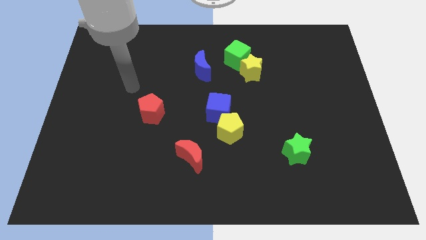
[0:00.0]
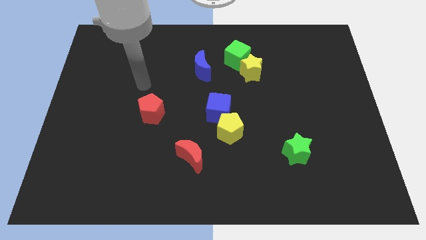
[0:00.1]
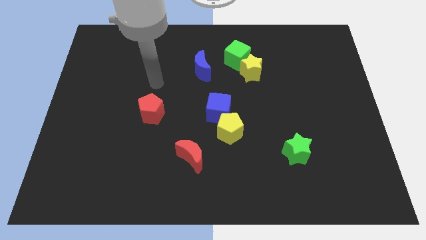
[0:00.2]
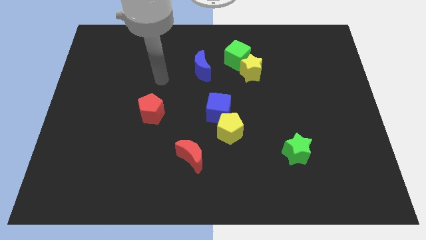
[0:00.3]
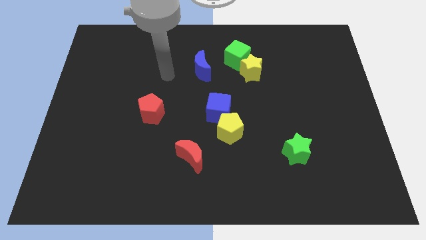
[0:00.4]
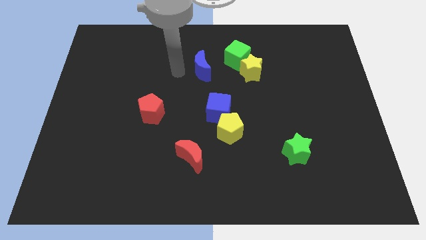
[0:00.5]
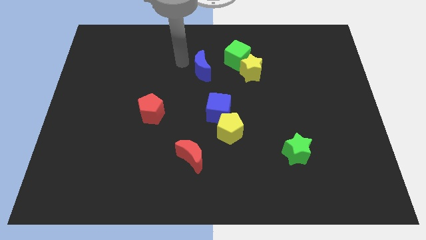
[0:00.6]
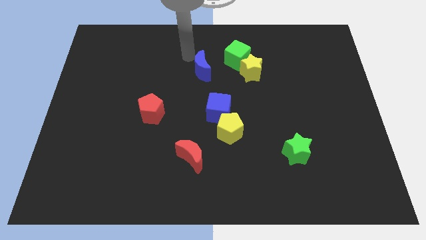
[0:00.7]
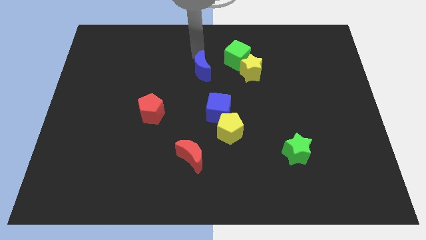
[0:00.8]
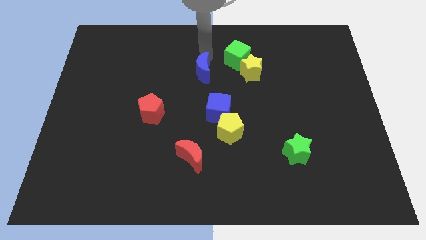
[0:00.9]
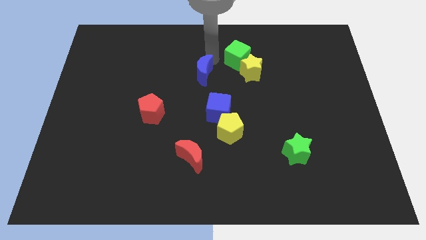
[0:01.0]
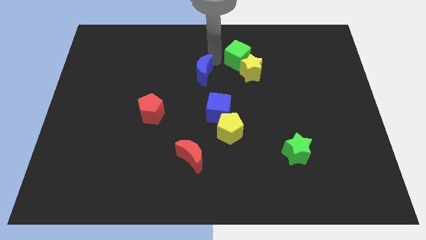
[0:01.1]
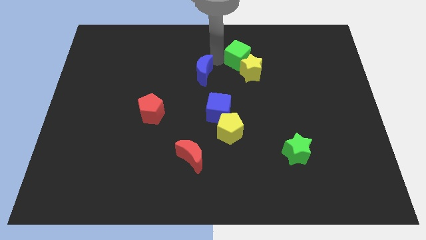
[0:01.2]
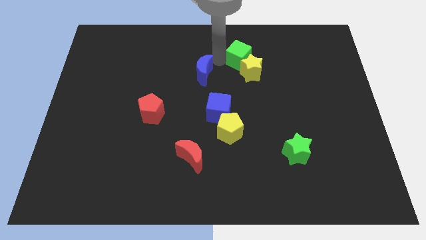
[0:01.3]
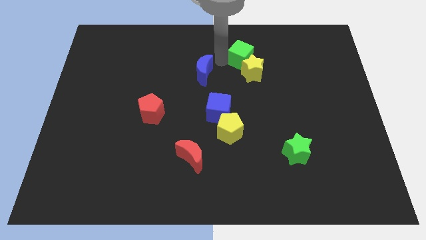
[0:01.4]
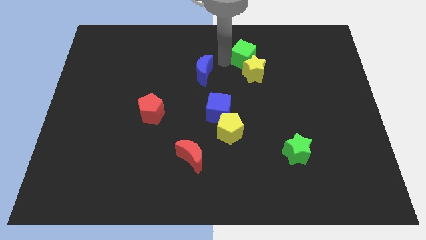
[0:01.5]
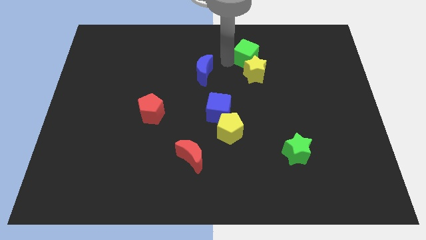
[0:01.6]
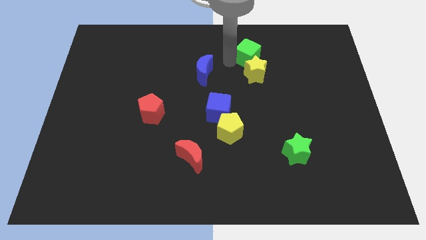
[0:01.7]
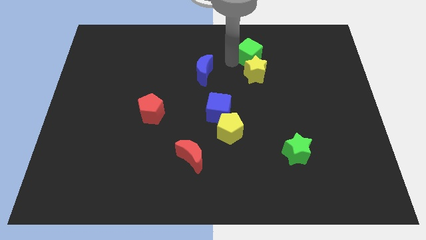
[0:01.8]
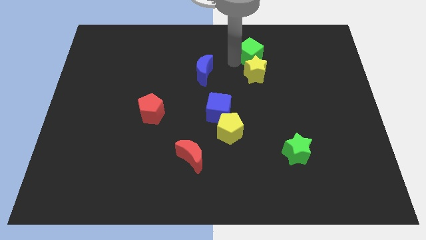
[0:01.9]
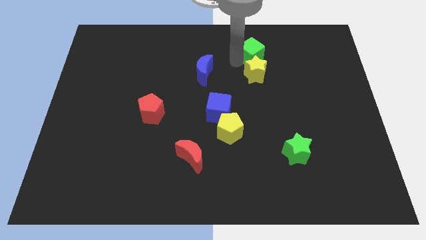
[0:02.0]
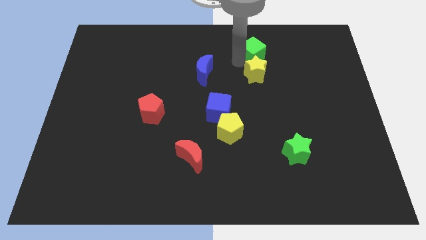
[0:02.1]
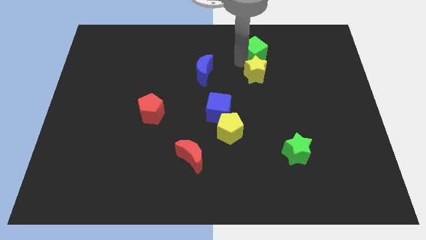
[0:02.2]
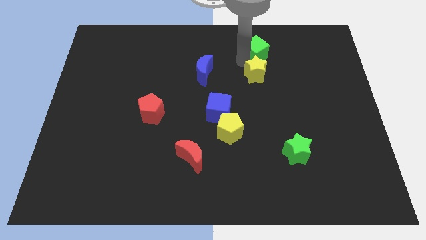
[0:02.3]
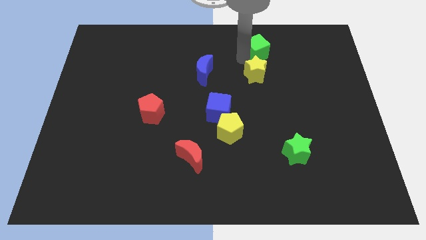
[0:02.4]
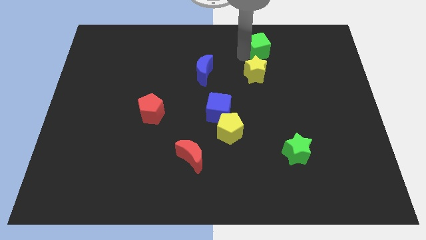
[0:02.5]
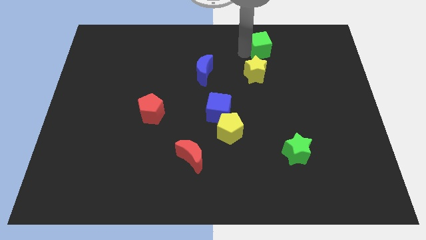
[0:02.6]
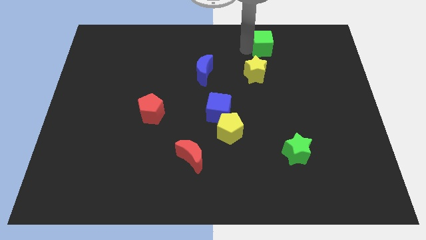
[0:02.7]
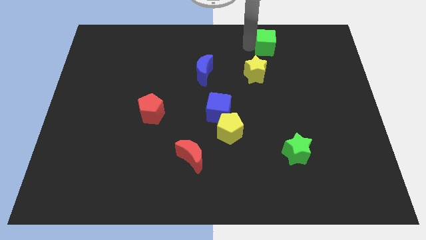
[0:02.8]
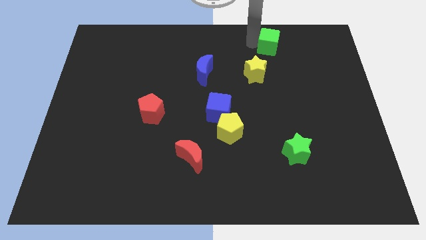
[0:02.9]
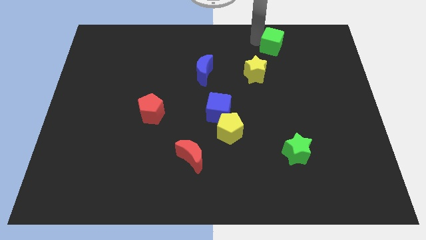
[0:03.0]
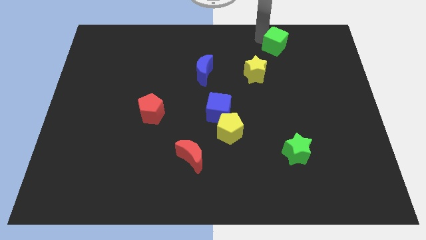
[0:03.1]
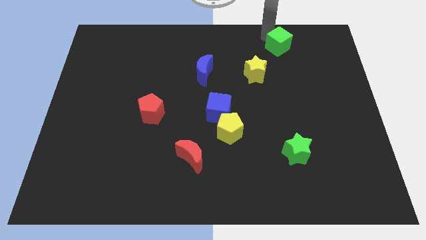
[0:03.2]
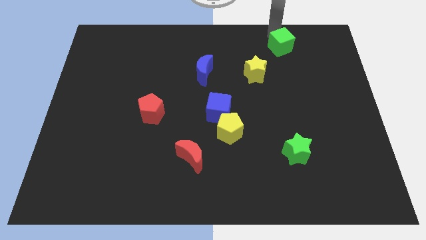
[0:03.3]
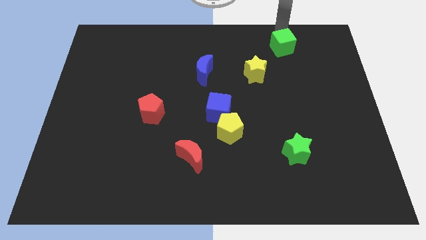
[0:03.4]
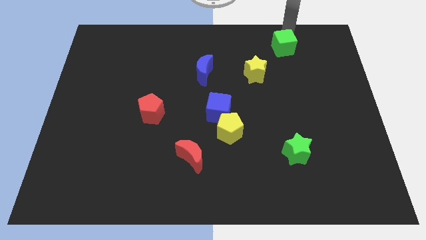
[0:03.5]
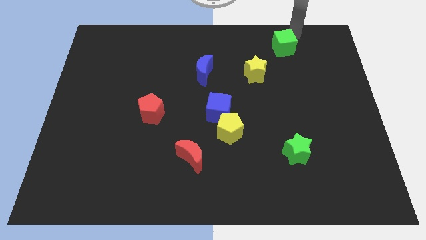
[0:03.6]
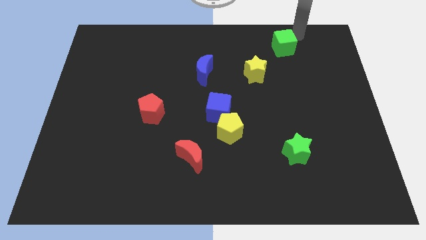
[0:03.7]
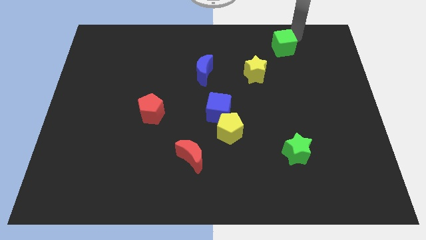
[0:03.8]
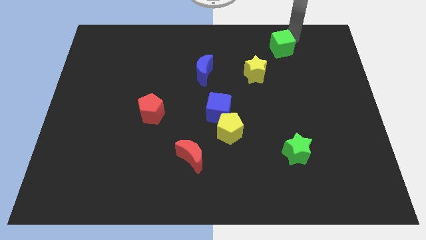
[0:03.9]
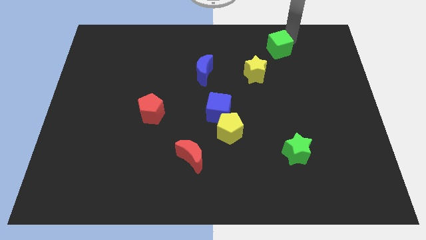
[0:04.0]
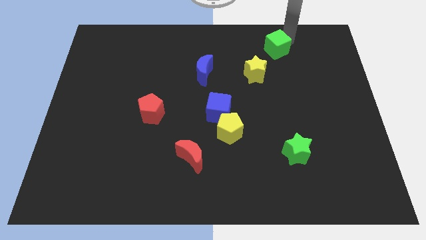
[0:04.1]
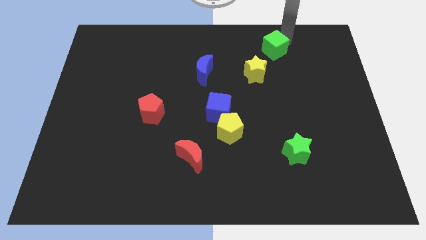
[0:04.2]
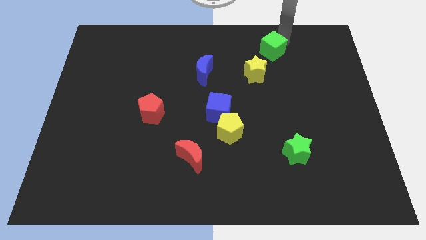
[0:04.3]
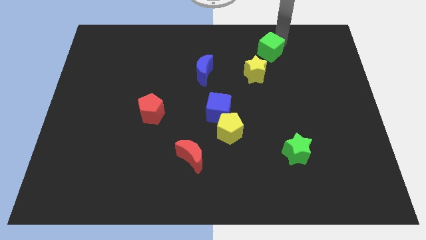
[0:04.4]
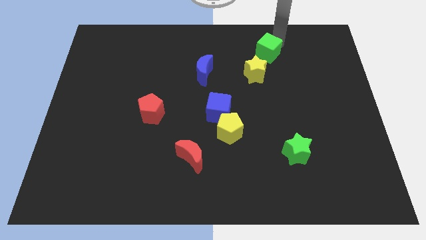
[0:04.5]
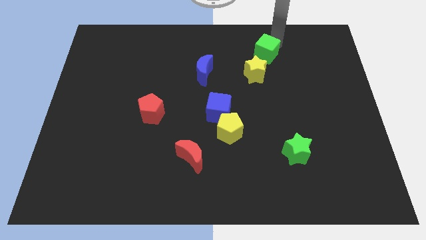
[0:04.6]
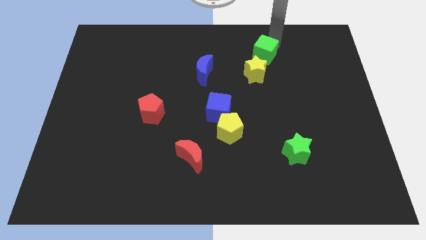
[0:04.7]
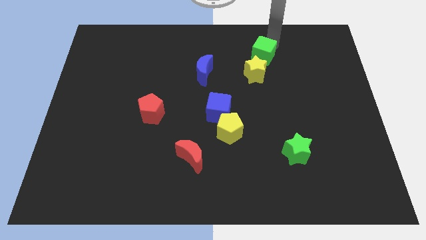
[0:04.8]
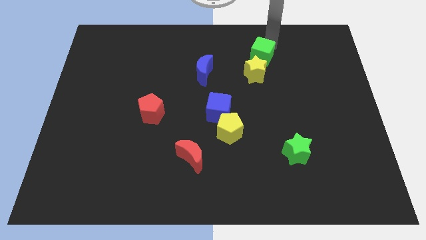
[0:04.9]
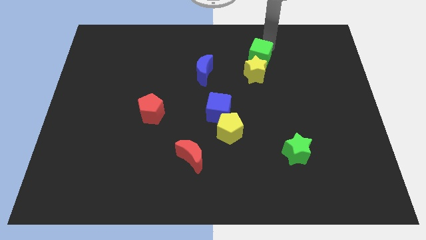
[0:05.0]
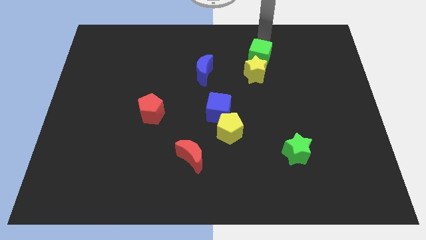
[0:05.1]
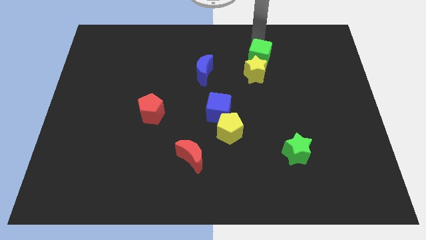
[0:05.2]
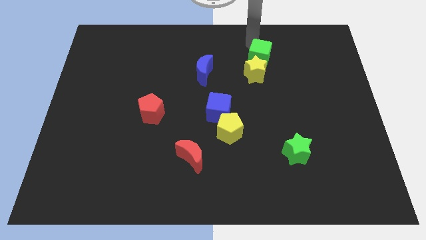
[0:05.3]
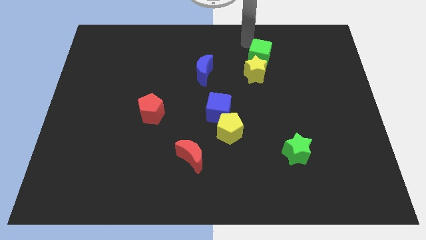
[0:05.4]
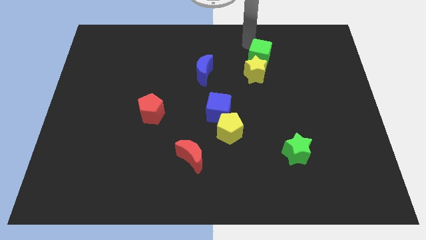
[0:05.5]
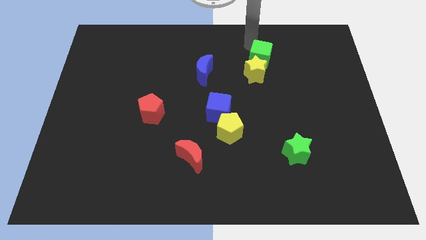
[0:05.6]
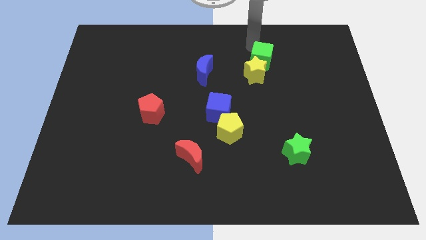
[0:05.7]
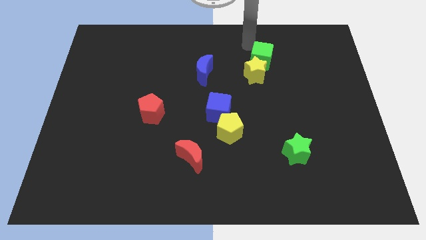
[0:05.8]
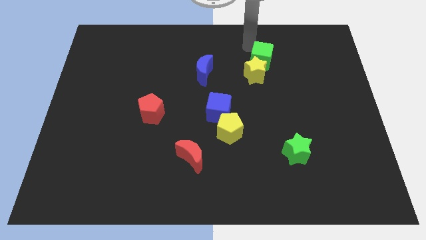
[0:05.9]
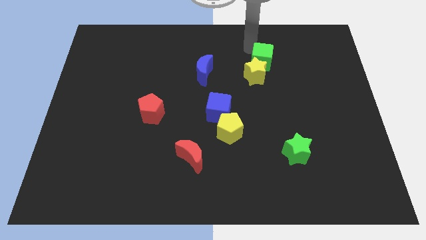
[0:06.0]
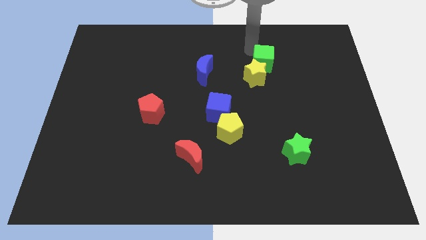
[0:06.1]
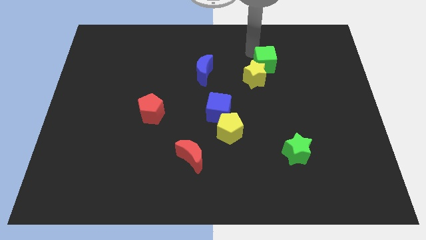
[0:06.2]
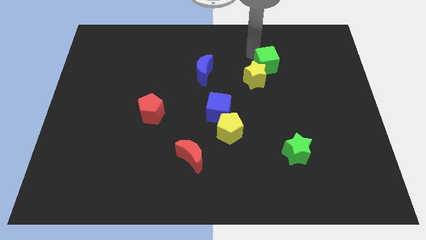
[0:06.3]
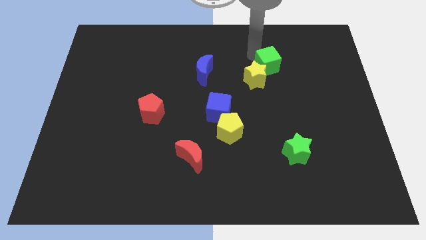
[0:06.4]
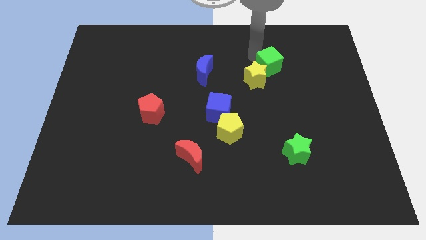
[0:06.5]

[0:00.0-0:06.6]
slide the green cube a bit downwards and right diagonally

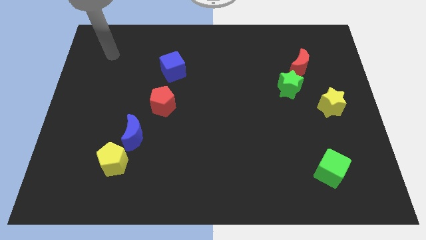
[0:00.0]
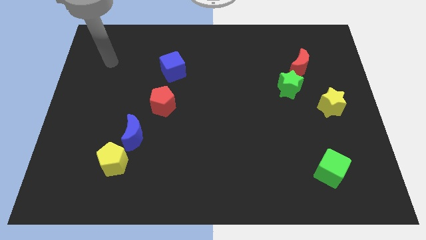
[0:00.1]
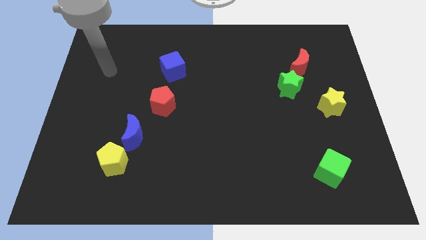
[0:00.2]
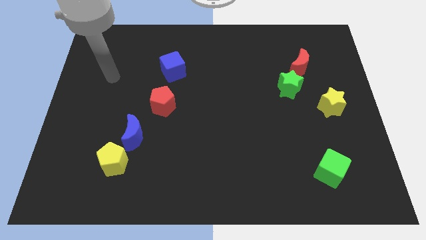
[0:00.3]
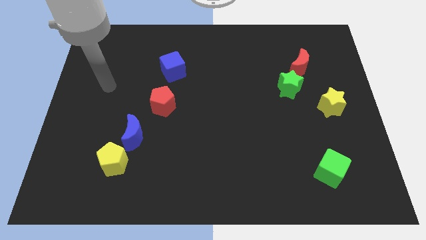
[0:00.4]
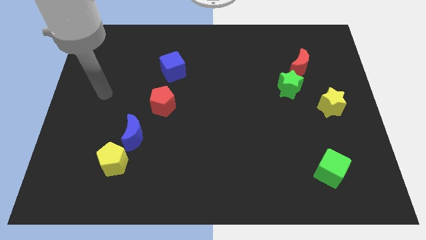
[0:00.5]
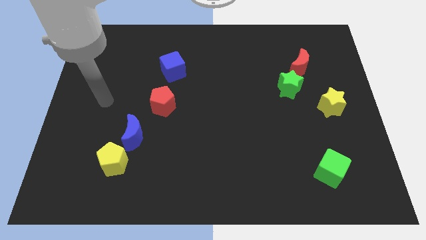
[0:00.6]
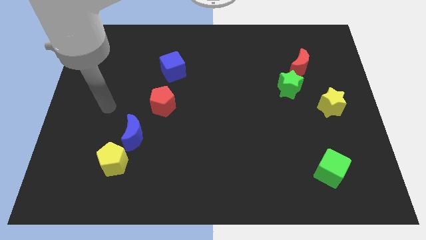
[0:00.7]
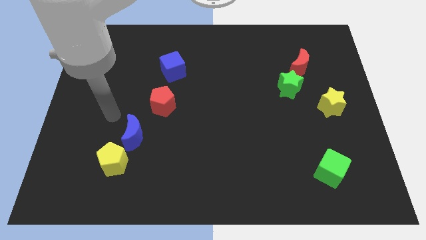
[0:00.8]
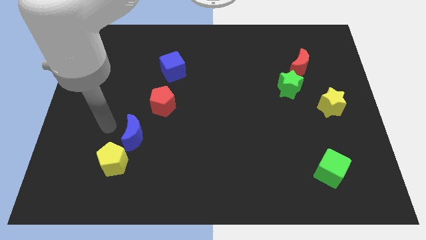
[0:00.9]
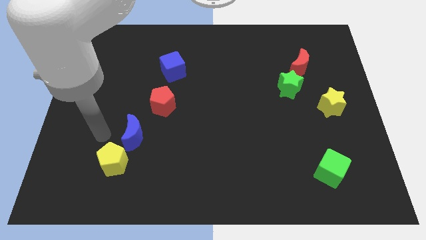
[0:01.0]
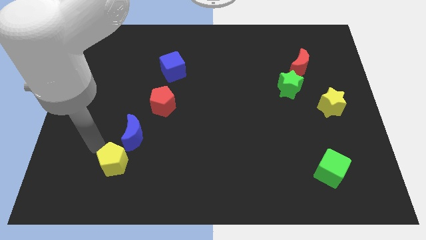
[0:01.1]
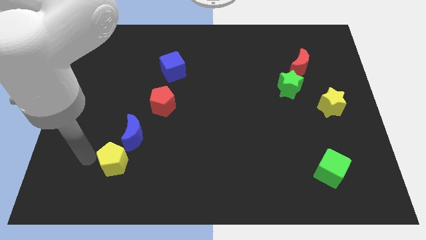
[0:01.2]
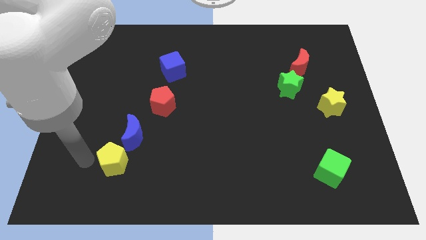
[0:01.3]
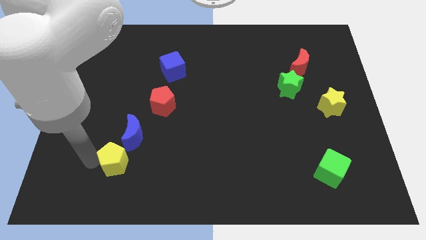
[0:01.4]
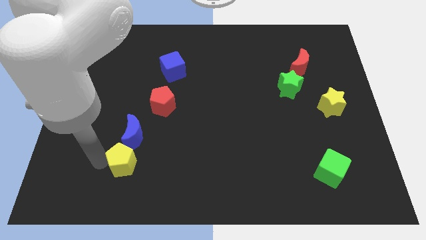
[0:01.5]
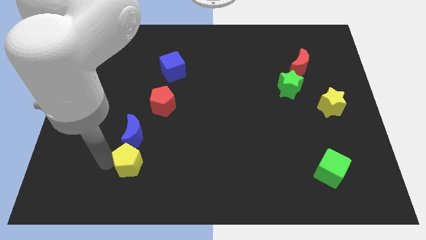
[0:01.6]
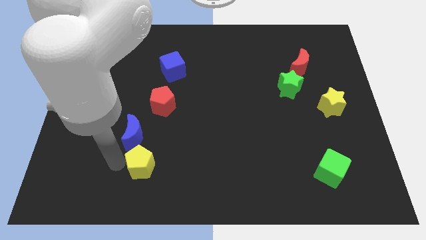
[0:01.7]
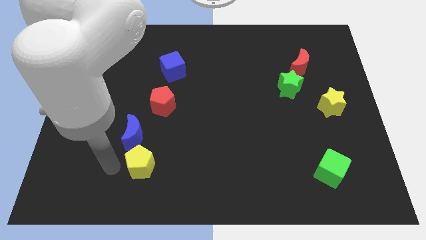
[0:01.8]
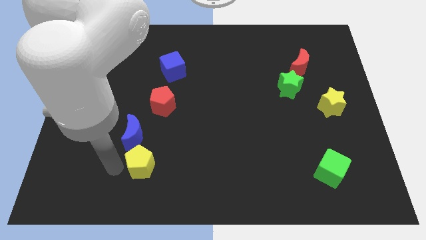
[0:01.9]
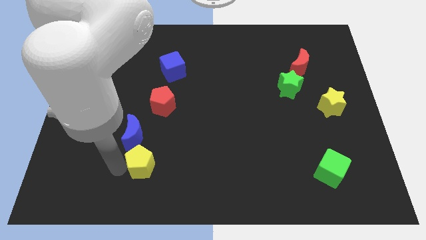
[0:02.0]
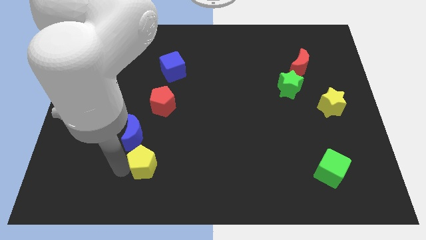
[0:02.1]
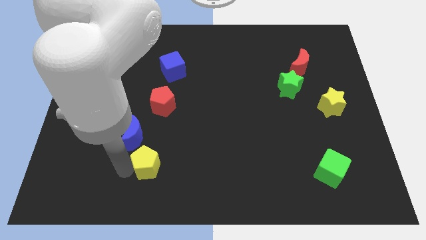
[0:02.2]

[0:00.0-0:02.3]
slightly slide the yellow pentagon right
